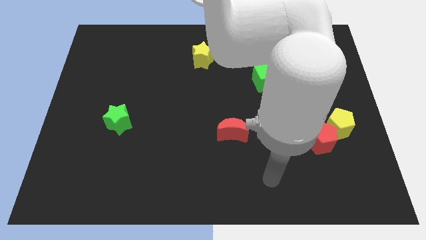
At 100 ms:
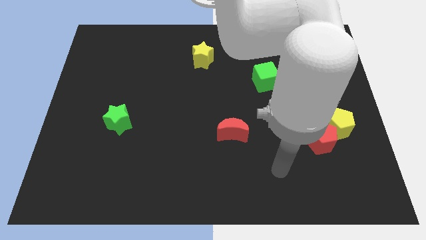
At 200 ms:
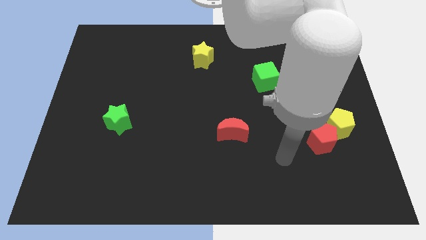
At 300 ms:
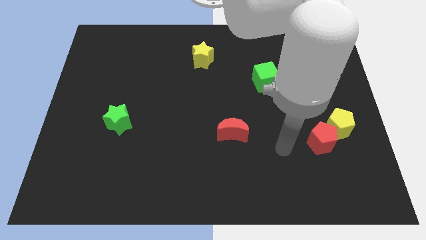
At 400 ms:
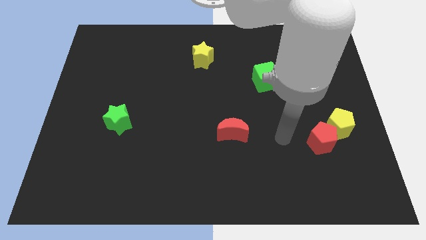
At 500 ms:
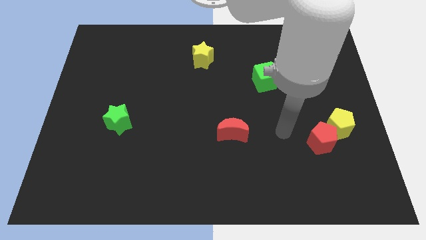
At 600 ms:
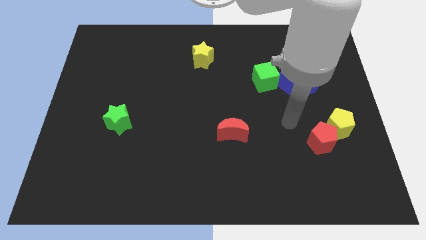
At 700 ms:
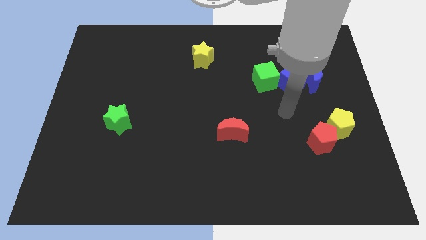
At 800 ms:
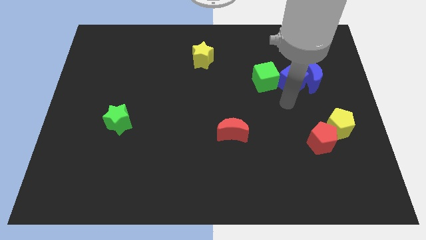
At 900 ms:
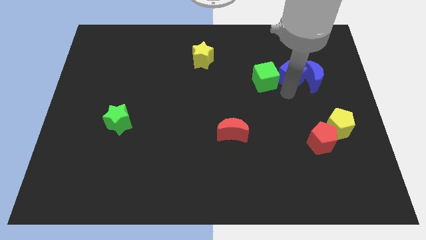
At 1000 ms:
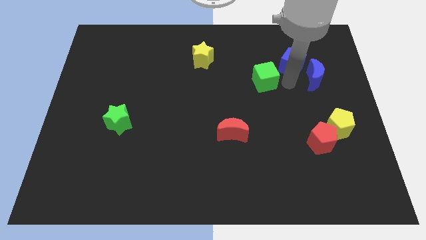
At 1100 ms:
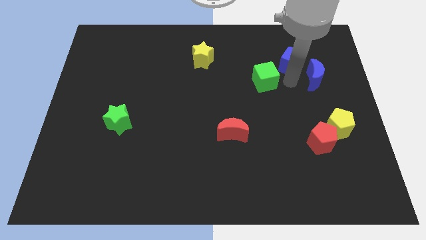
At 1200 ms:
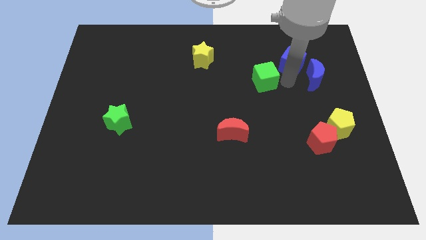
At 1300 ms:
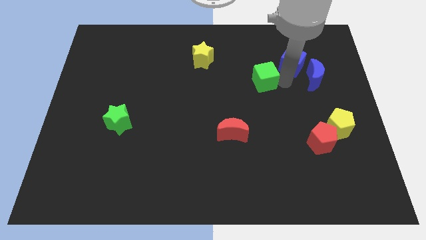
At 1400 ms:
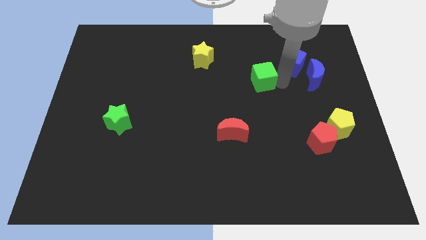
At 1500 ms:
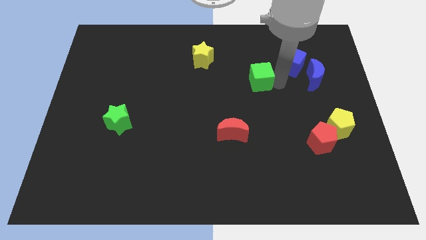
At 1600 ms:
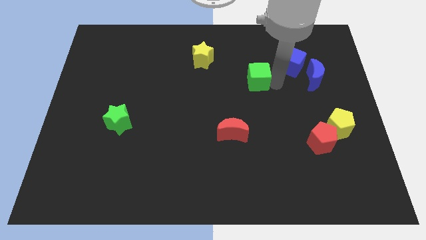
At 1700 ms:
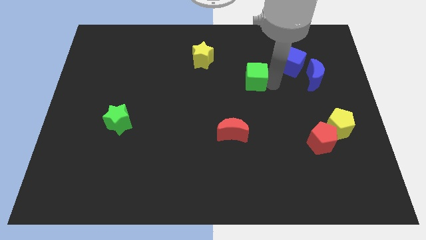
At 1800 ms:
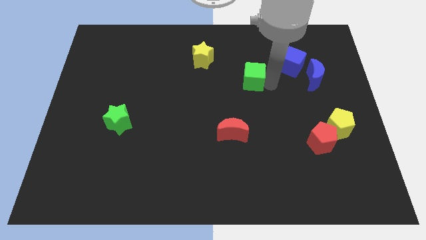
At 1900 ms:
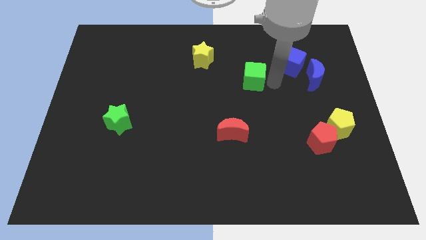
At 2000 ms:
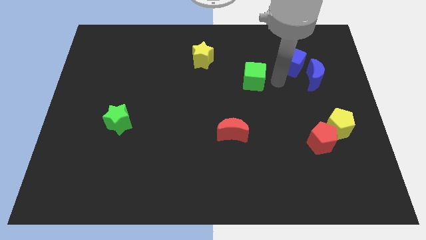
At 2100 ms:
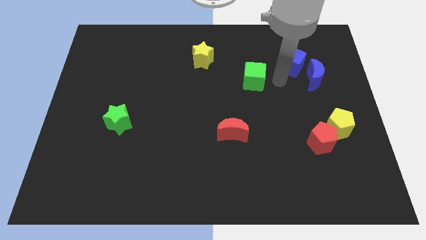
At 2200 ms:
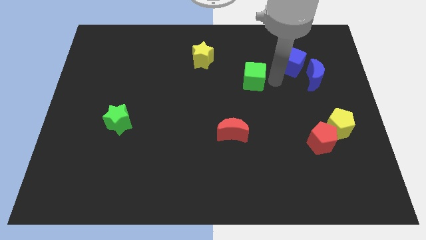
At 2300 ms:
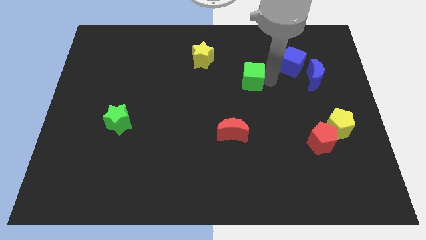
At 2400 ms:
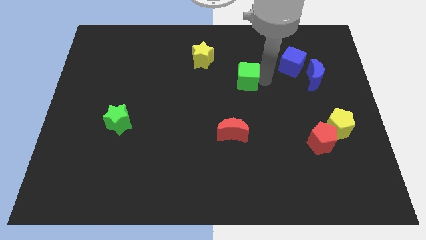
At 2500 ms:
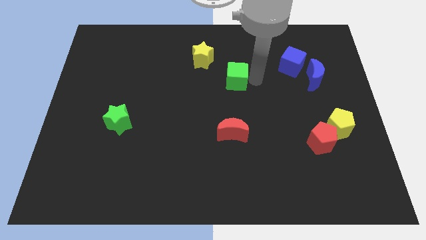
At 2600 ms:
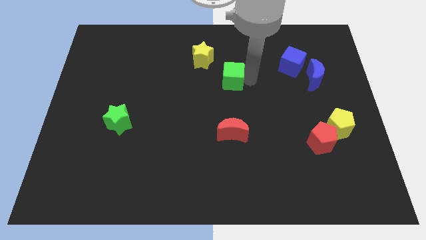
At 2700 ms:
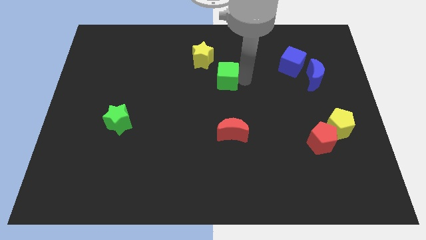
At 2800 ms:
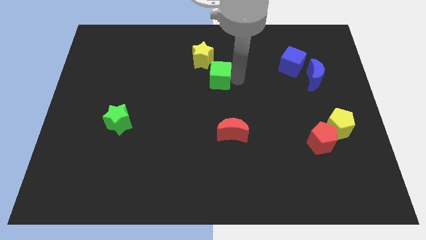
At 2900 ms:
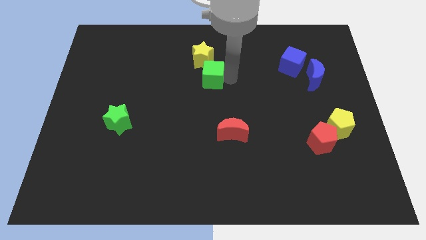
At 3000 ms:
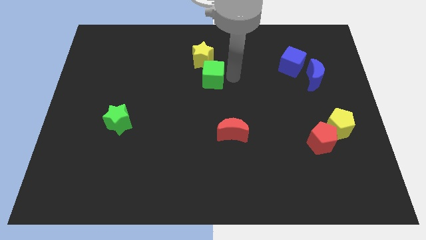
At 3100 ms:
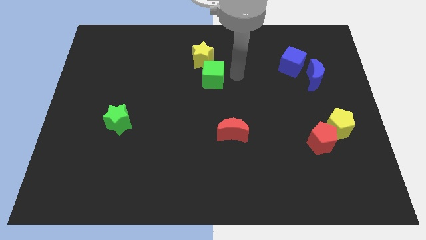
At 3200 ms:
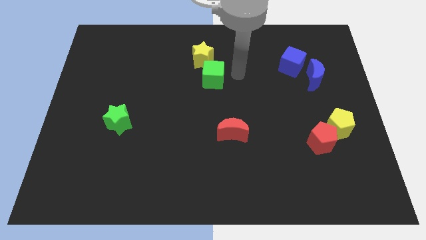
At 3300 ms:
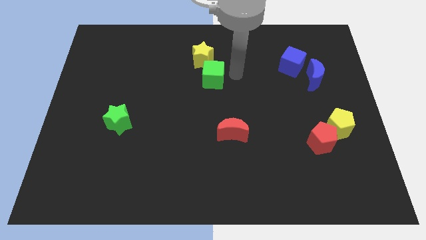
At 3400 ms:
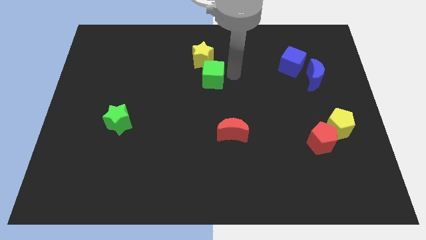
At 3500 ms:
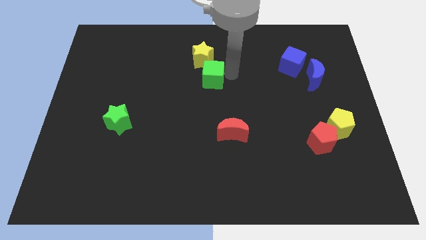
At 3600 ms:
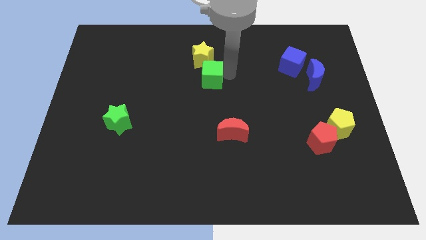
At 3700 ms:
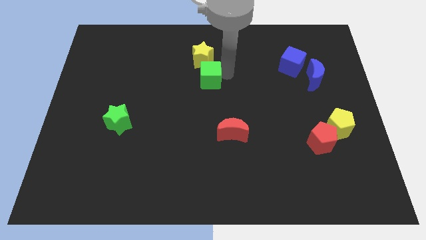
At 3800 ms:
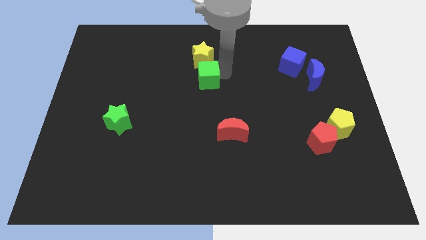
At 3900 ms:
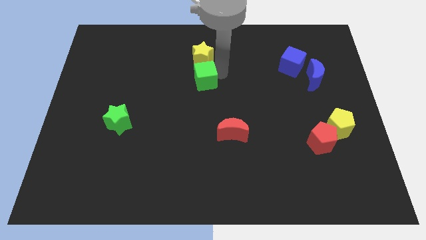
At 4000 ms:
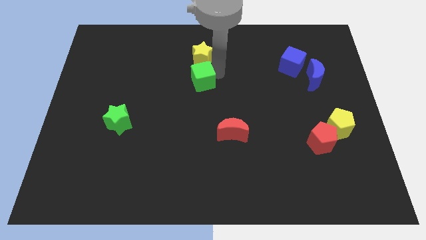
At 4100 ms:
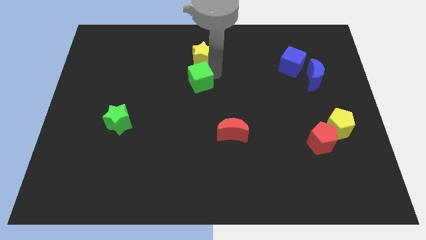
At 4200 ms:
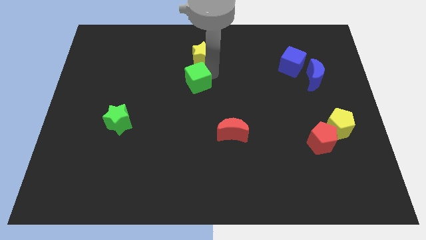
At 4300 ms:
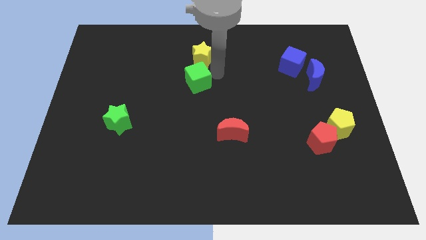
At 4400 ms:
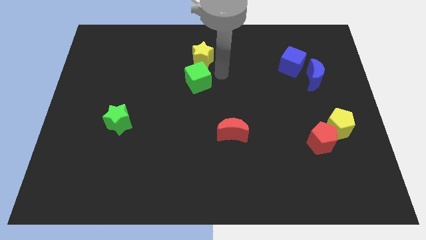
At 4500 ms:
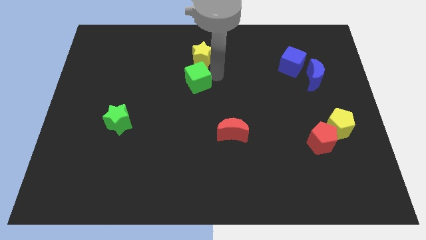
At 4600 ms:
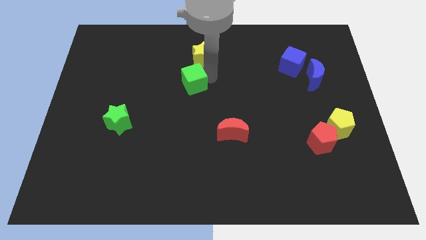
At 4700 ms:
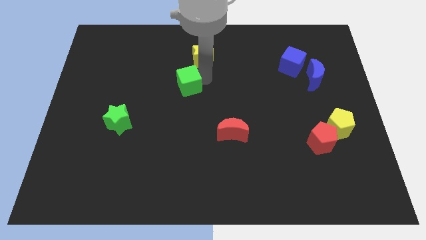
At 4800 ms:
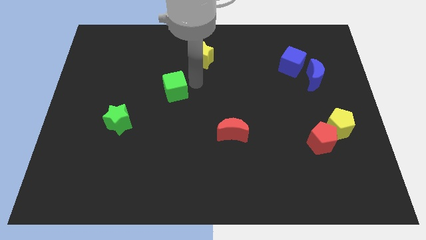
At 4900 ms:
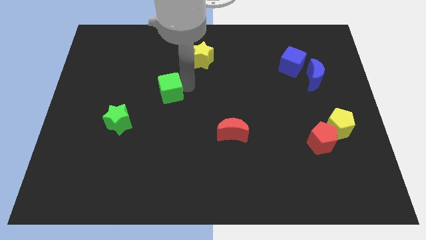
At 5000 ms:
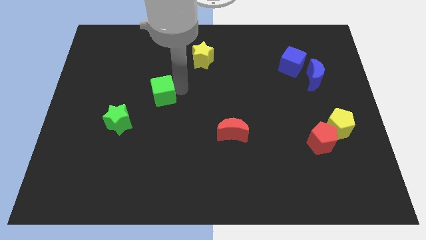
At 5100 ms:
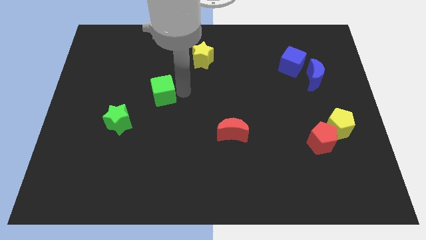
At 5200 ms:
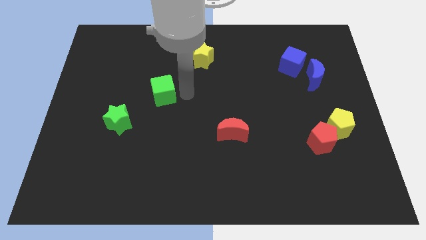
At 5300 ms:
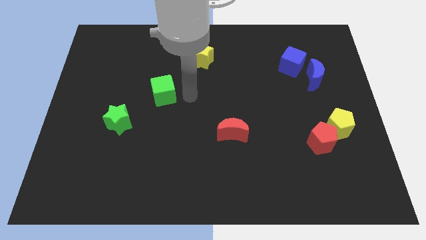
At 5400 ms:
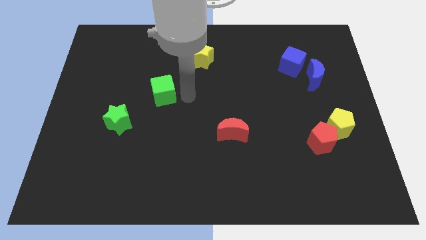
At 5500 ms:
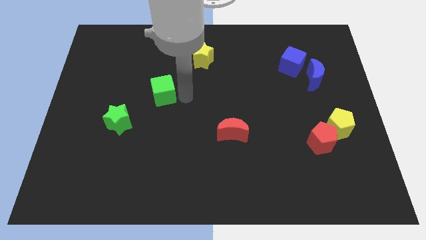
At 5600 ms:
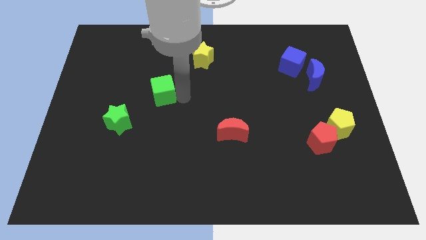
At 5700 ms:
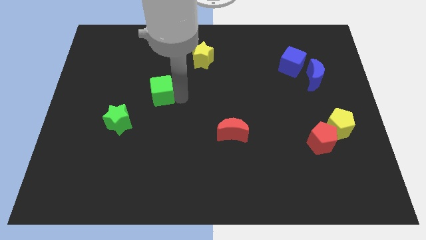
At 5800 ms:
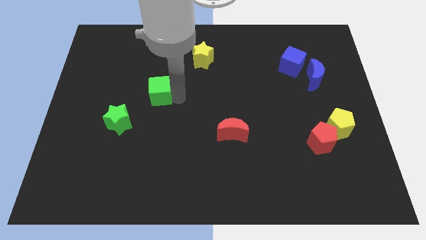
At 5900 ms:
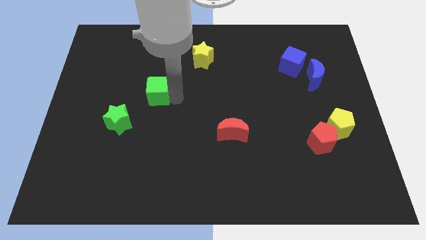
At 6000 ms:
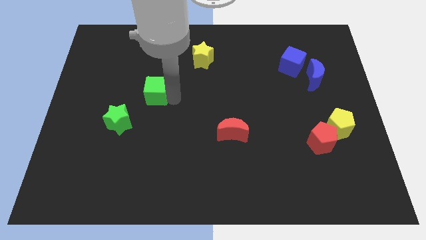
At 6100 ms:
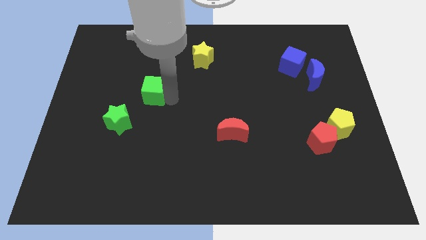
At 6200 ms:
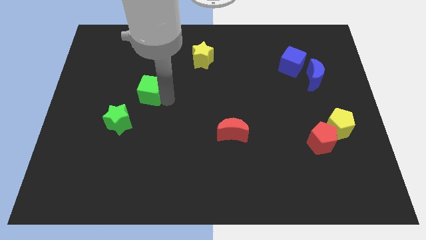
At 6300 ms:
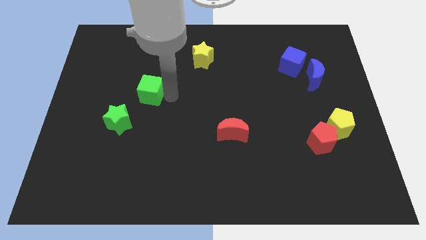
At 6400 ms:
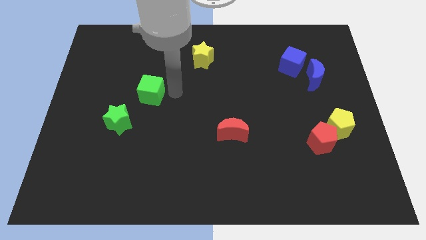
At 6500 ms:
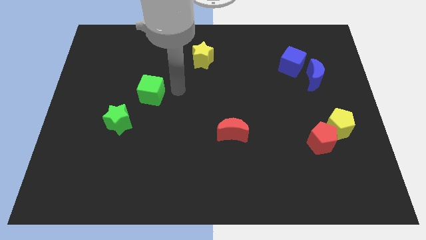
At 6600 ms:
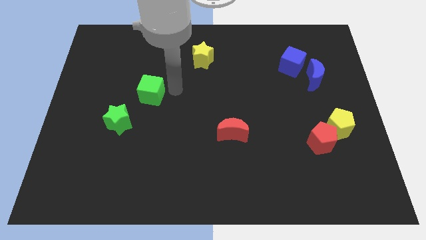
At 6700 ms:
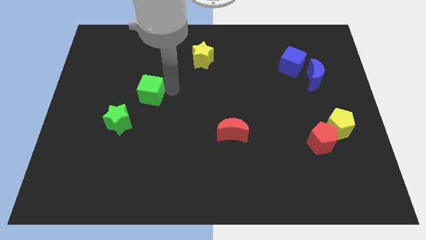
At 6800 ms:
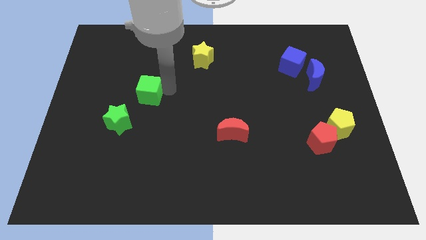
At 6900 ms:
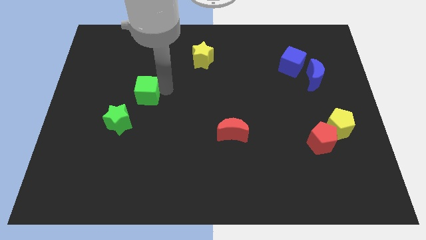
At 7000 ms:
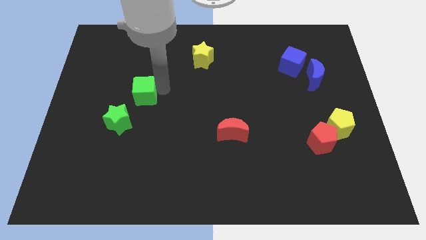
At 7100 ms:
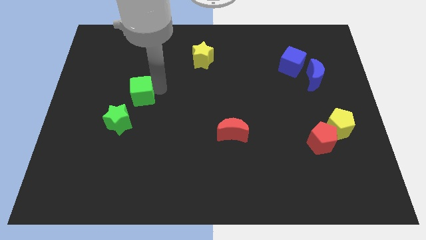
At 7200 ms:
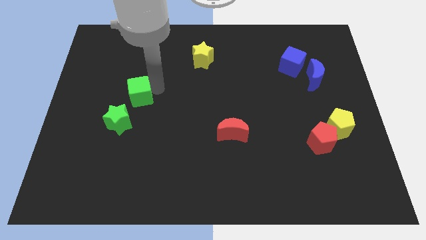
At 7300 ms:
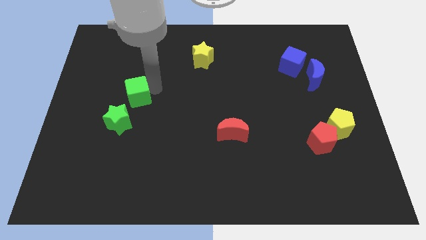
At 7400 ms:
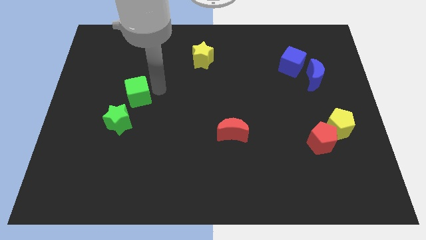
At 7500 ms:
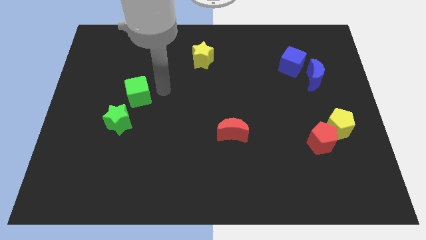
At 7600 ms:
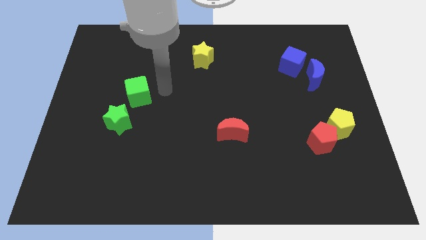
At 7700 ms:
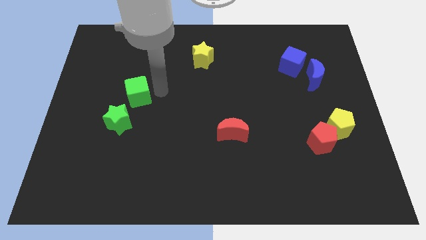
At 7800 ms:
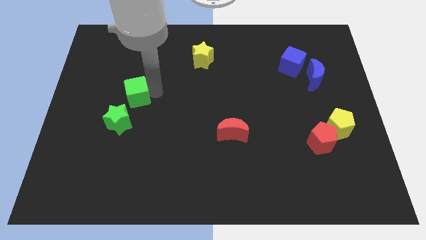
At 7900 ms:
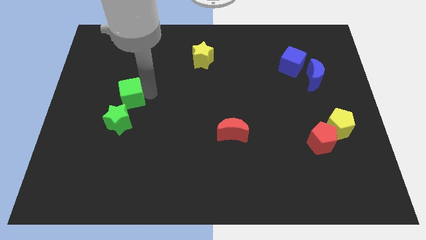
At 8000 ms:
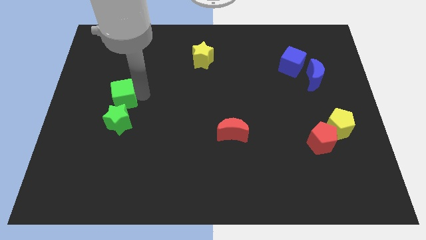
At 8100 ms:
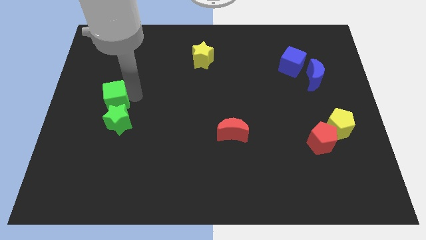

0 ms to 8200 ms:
put the green cube to the top left of the green star
